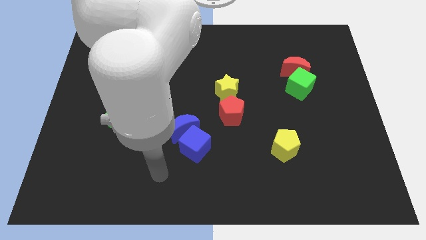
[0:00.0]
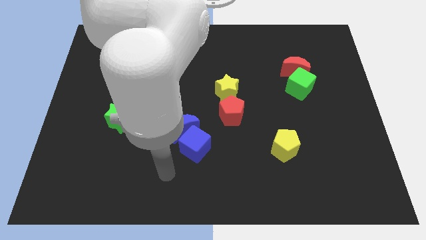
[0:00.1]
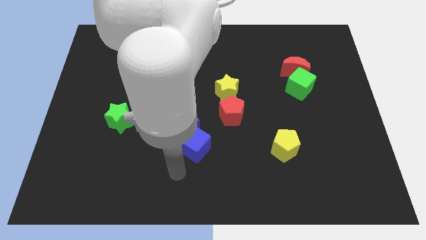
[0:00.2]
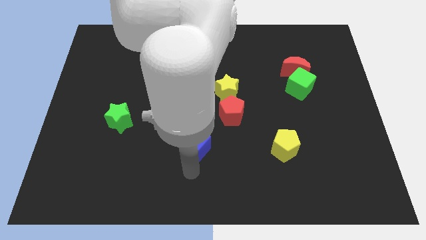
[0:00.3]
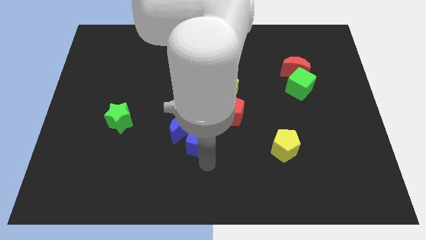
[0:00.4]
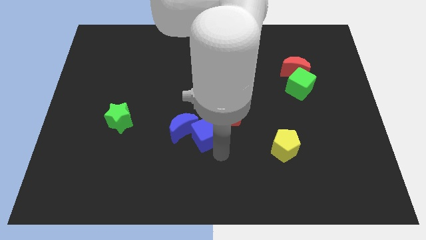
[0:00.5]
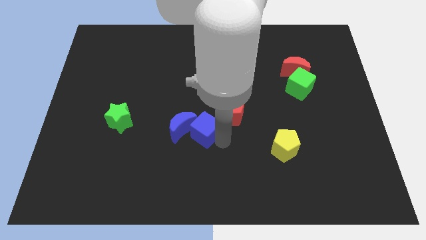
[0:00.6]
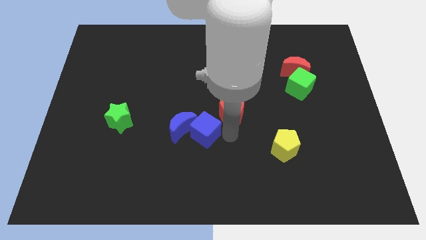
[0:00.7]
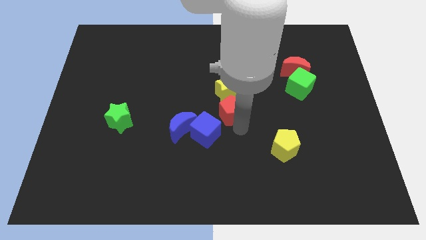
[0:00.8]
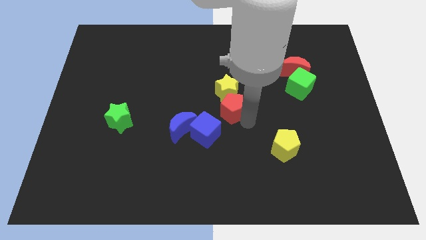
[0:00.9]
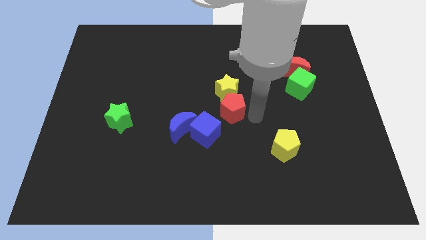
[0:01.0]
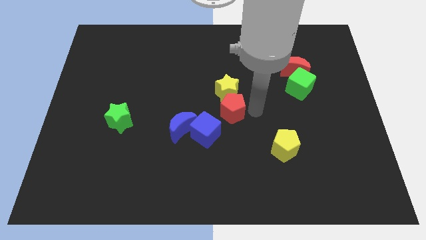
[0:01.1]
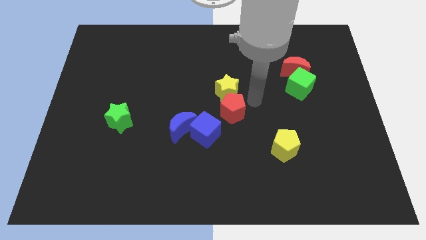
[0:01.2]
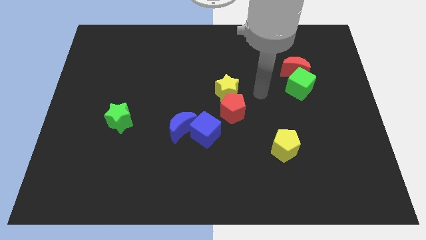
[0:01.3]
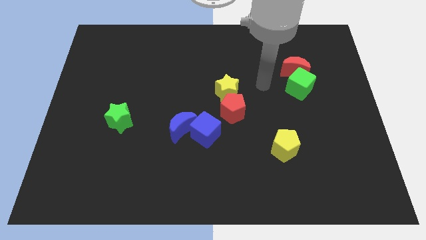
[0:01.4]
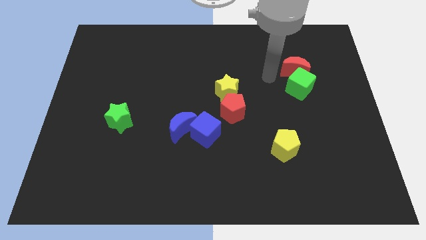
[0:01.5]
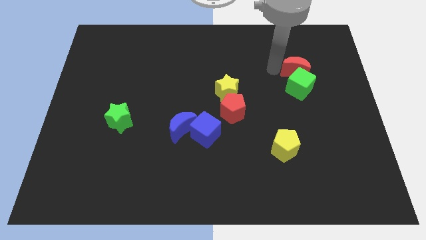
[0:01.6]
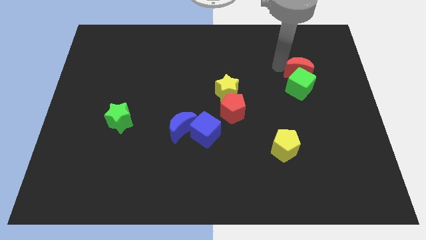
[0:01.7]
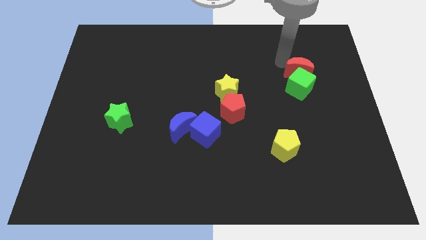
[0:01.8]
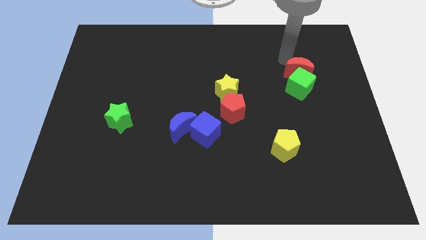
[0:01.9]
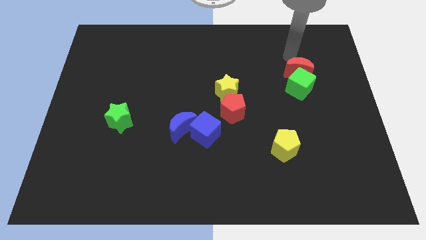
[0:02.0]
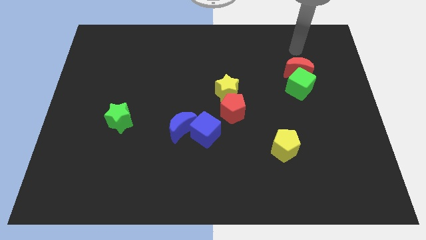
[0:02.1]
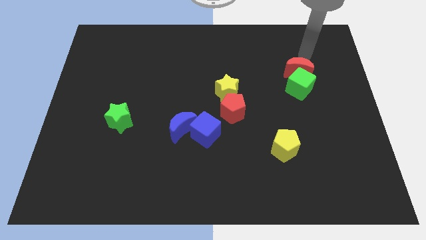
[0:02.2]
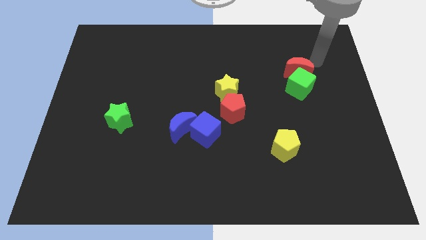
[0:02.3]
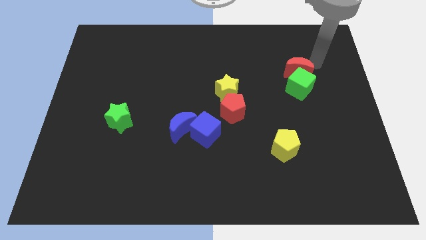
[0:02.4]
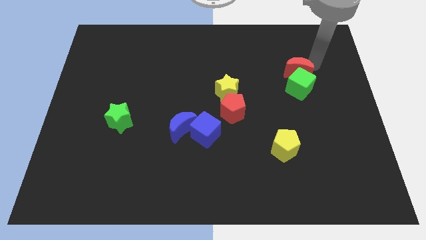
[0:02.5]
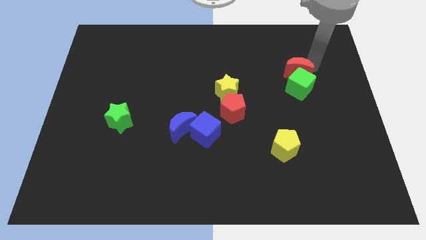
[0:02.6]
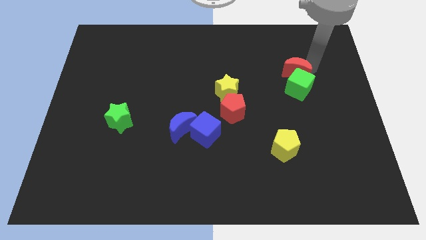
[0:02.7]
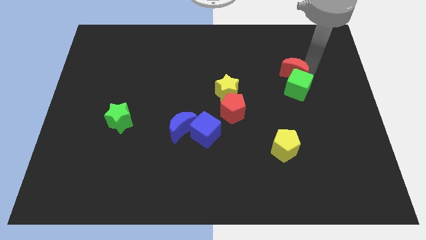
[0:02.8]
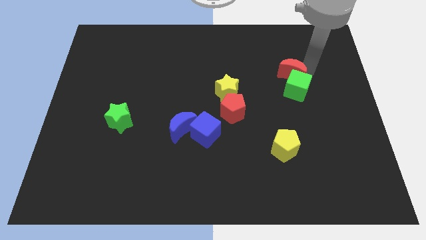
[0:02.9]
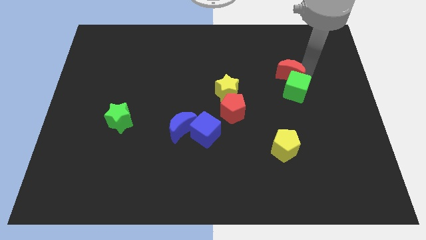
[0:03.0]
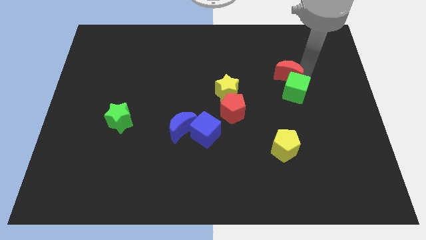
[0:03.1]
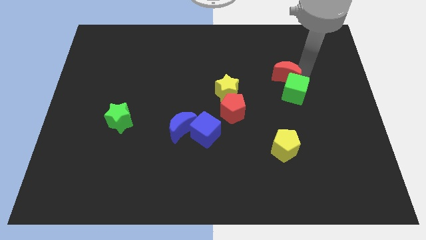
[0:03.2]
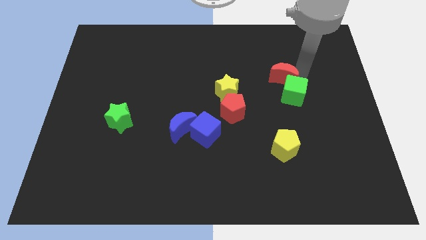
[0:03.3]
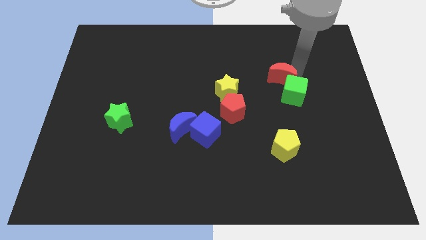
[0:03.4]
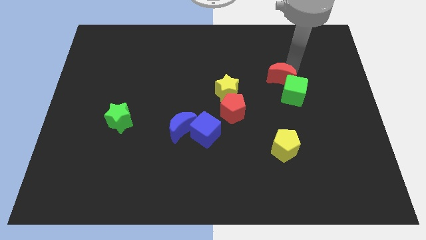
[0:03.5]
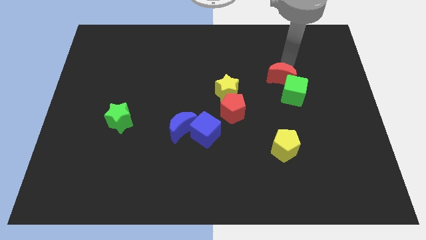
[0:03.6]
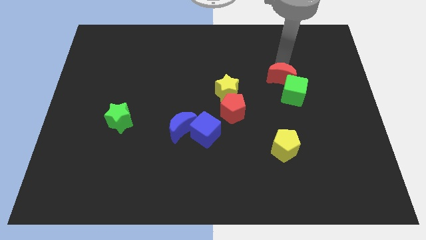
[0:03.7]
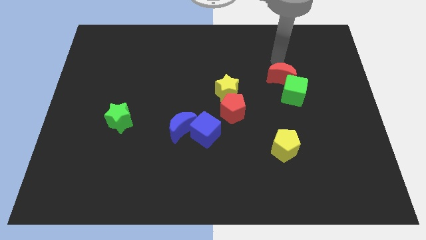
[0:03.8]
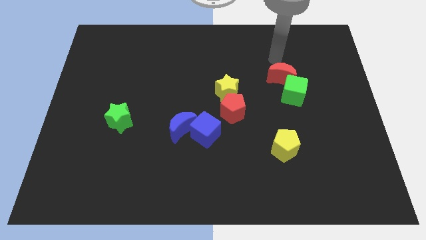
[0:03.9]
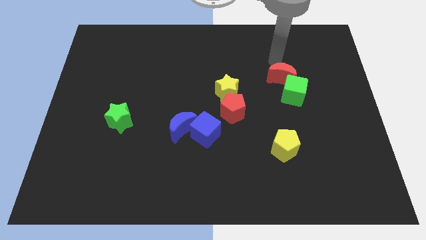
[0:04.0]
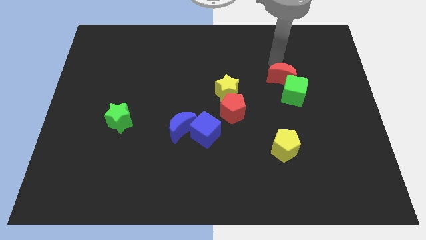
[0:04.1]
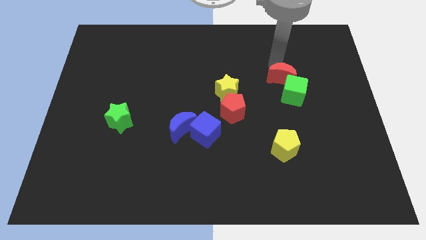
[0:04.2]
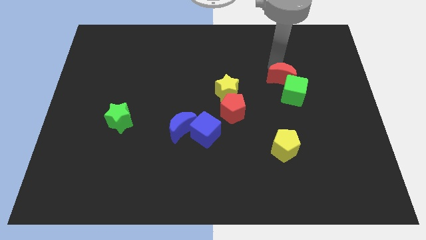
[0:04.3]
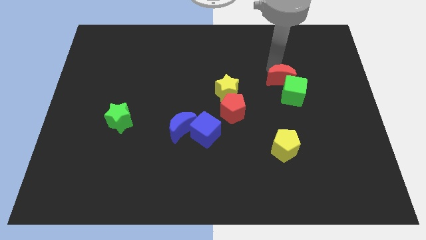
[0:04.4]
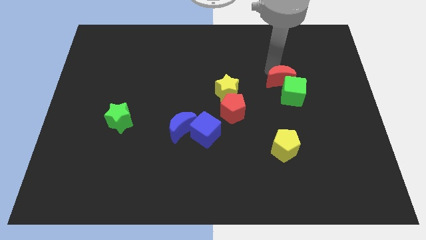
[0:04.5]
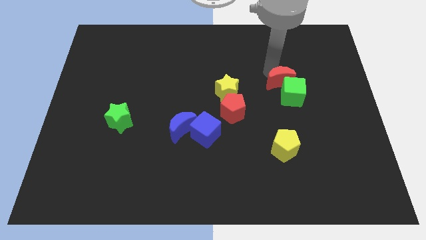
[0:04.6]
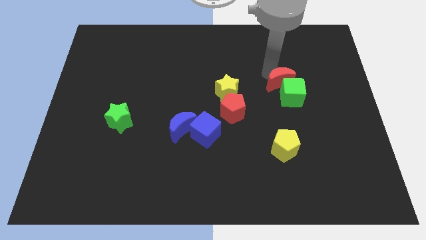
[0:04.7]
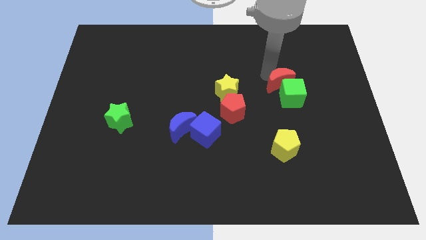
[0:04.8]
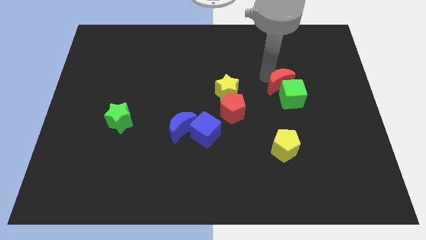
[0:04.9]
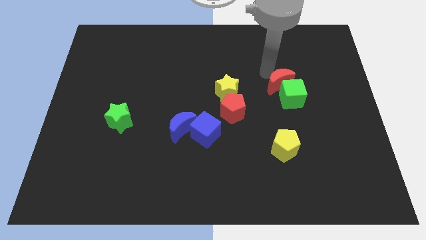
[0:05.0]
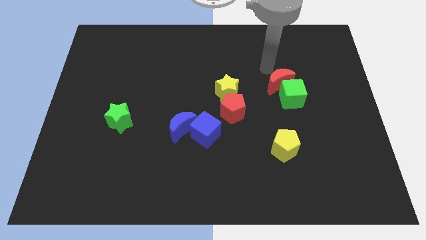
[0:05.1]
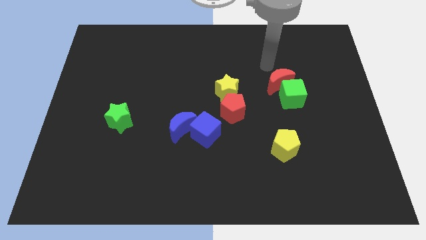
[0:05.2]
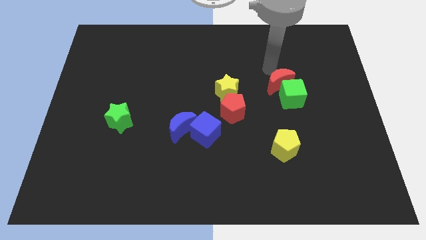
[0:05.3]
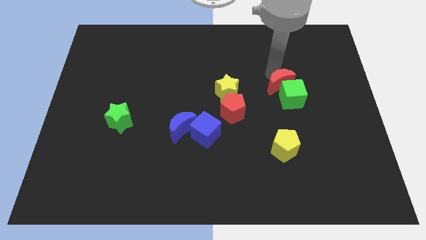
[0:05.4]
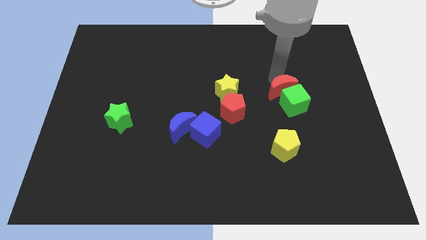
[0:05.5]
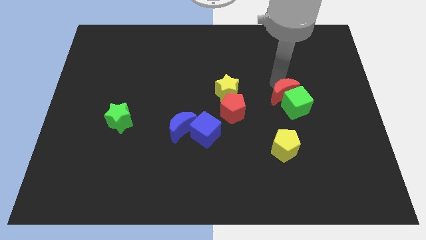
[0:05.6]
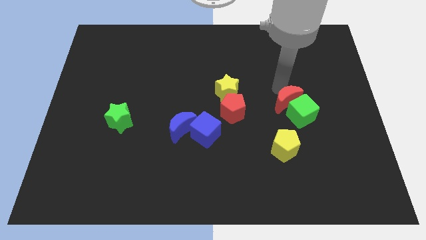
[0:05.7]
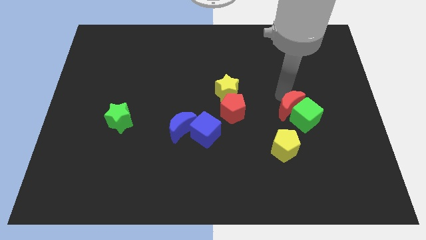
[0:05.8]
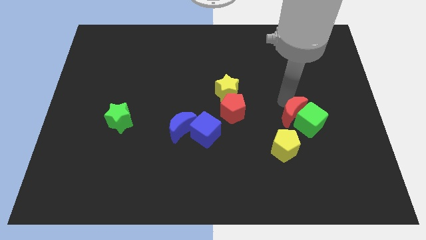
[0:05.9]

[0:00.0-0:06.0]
push the red moon to the top right of the yellow pentagon
